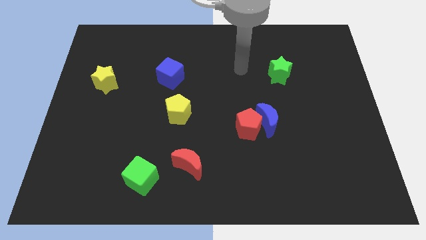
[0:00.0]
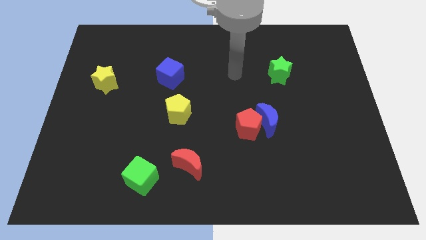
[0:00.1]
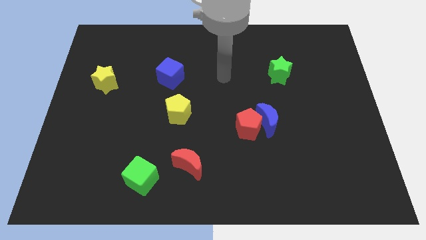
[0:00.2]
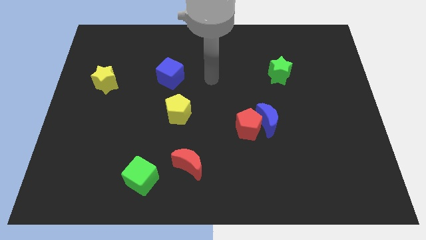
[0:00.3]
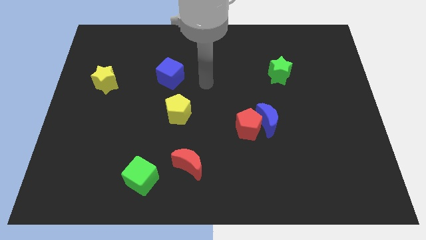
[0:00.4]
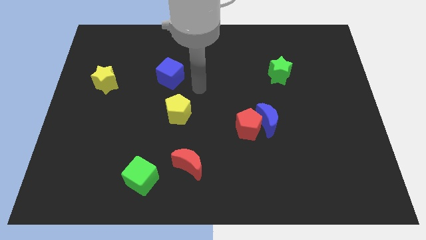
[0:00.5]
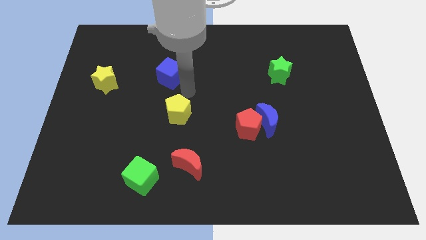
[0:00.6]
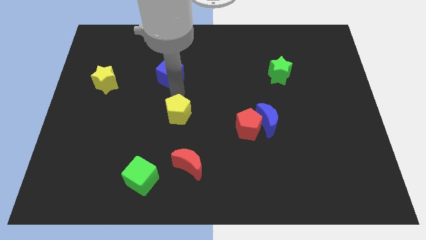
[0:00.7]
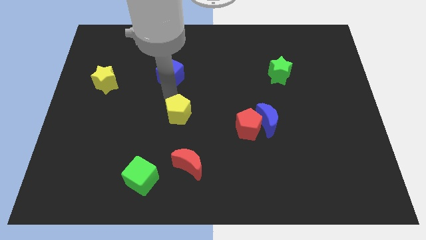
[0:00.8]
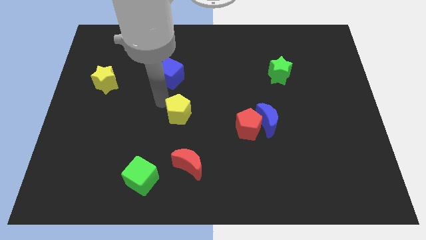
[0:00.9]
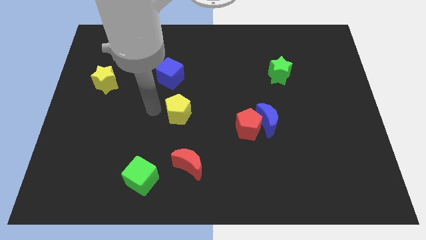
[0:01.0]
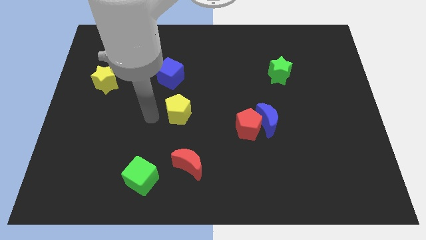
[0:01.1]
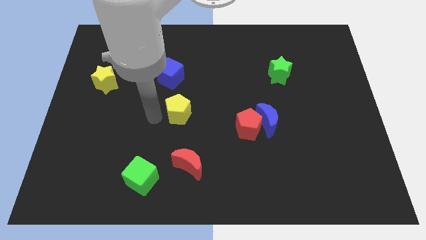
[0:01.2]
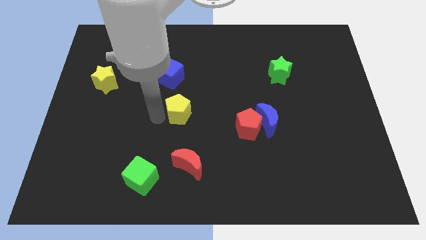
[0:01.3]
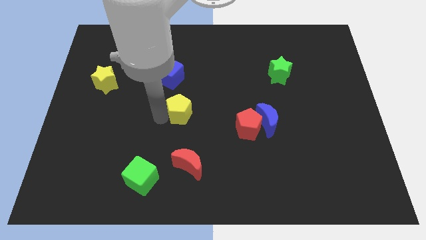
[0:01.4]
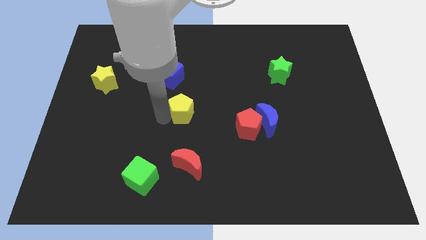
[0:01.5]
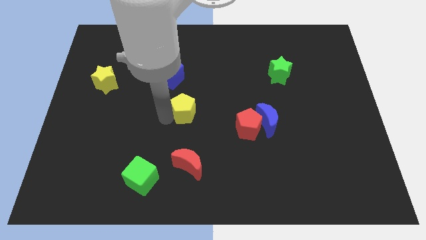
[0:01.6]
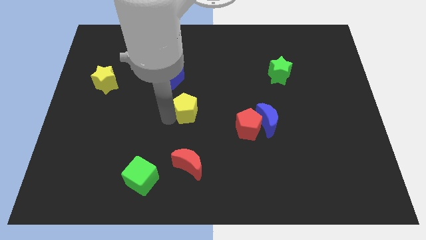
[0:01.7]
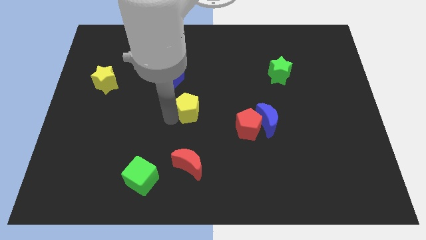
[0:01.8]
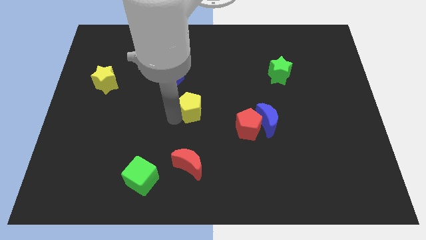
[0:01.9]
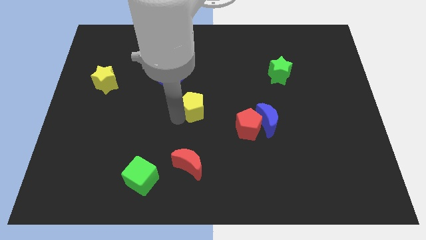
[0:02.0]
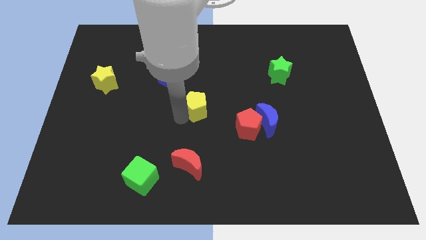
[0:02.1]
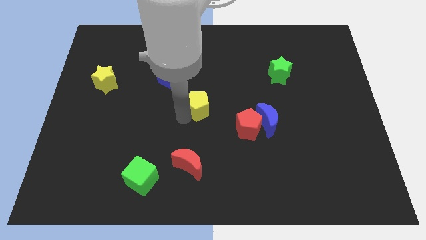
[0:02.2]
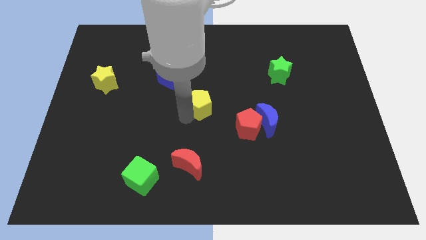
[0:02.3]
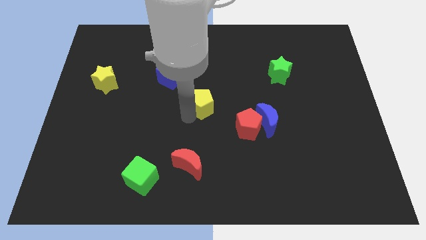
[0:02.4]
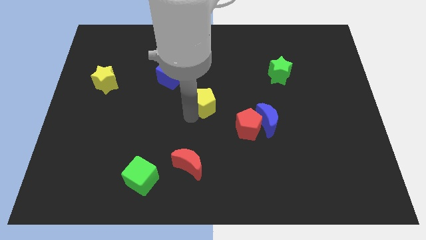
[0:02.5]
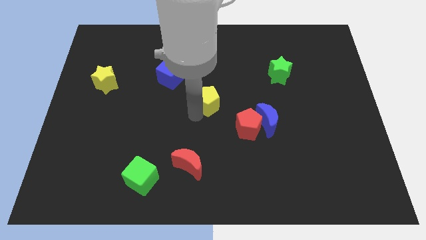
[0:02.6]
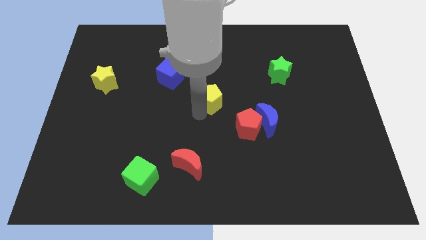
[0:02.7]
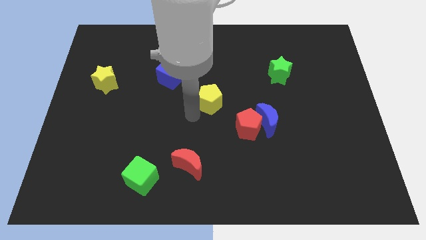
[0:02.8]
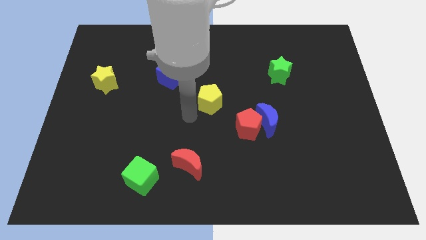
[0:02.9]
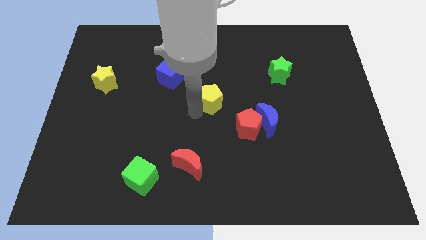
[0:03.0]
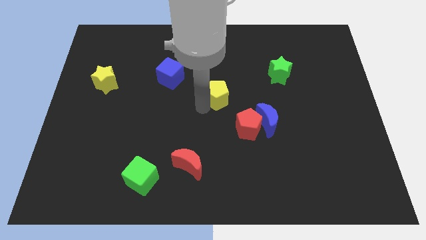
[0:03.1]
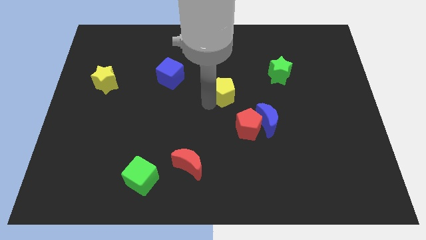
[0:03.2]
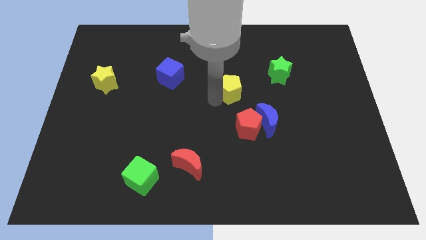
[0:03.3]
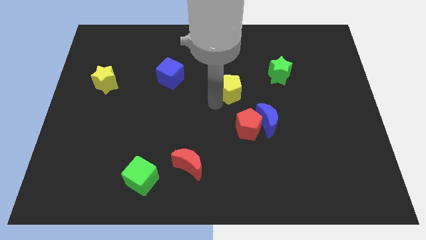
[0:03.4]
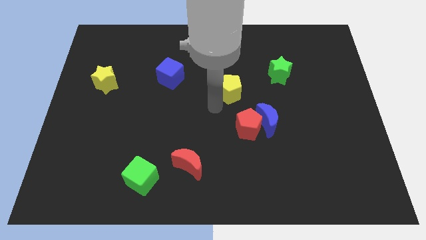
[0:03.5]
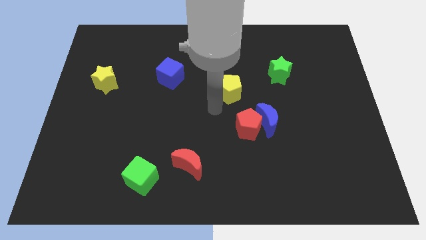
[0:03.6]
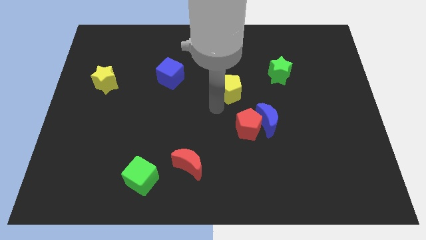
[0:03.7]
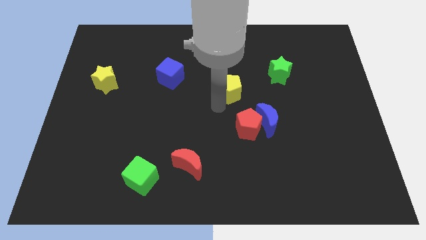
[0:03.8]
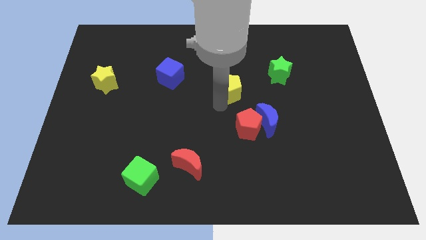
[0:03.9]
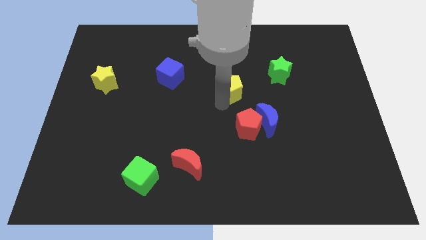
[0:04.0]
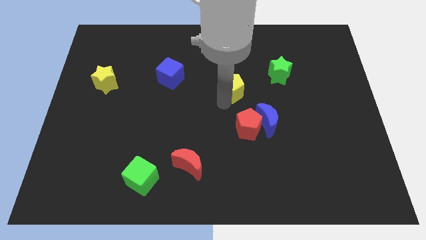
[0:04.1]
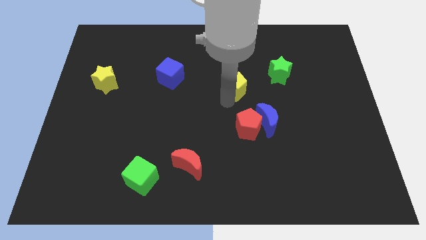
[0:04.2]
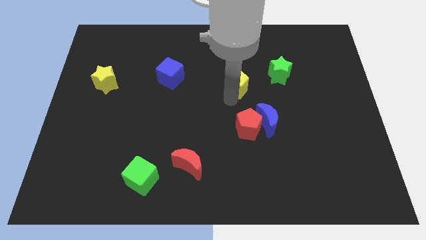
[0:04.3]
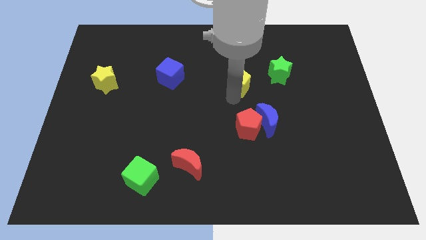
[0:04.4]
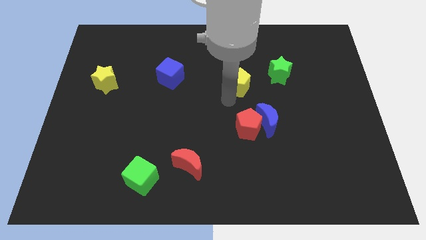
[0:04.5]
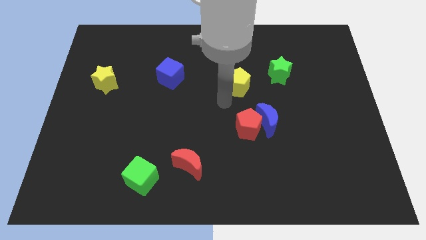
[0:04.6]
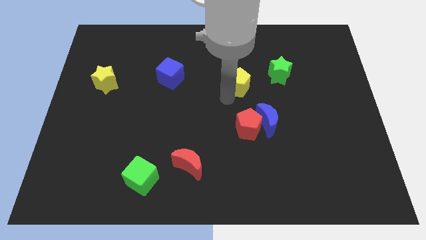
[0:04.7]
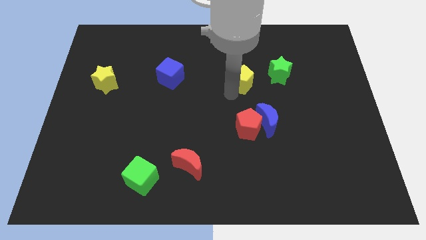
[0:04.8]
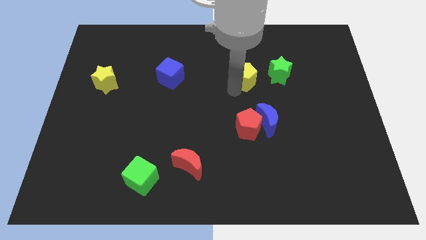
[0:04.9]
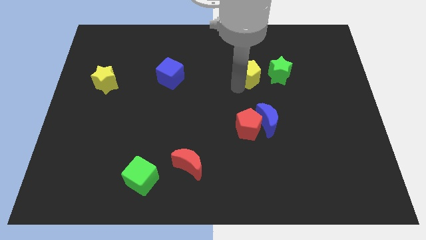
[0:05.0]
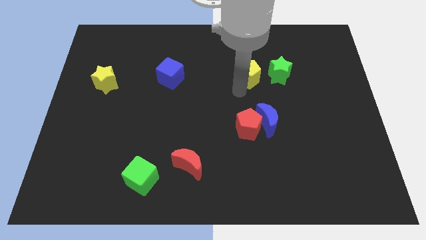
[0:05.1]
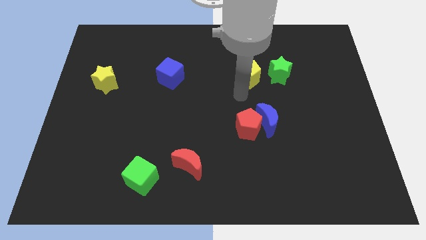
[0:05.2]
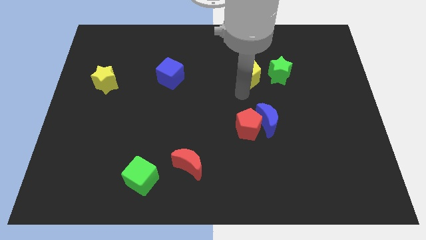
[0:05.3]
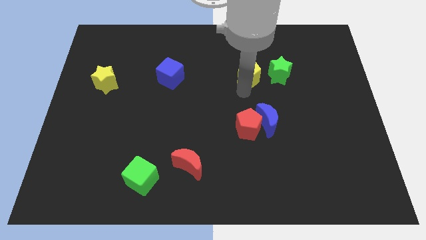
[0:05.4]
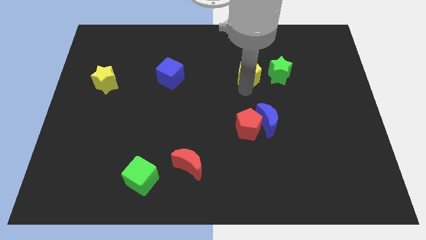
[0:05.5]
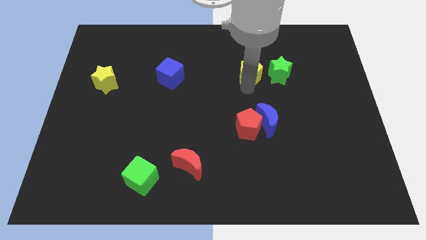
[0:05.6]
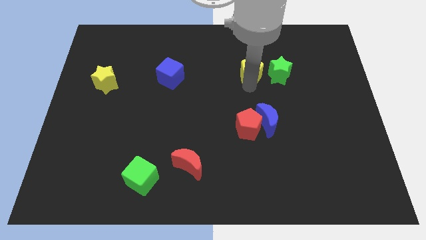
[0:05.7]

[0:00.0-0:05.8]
push the yellow pentagon to the top left side of the green star

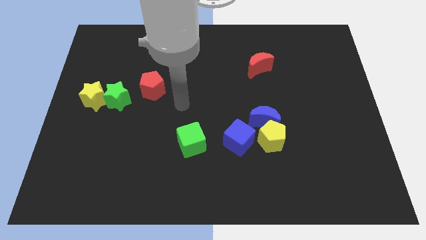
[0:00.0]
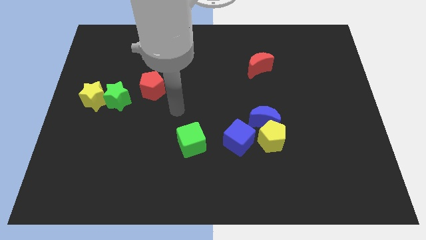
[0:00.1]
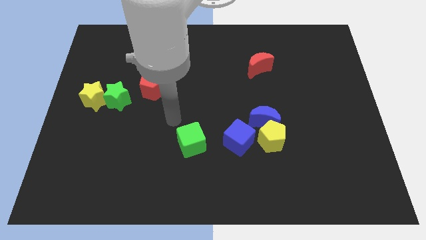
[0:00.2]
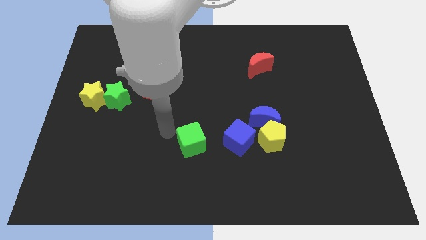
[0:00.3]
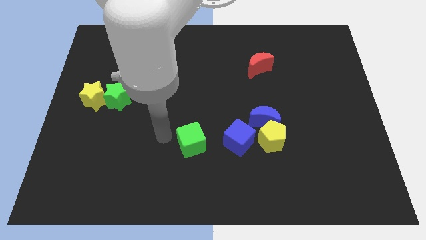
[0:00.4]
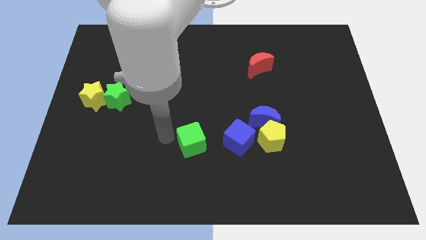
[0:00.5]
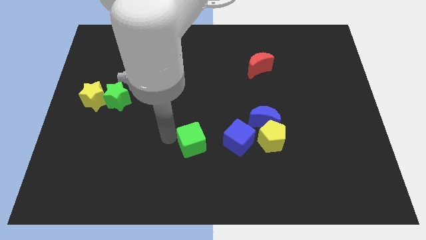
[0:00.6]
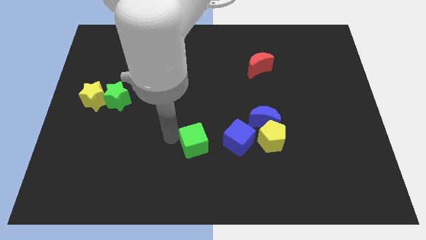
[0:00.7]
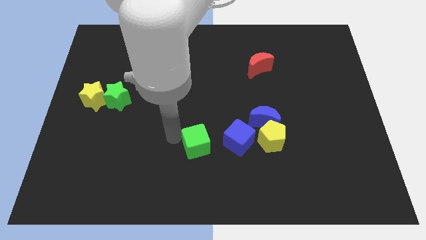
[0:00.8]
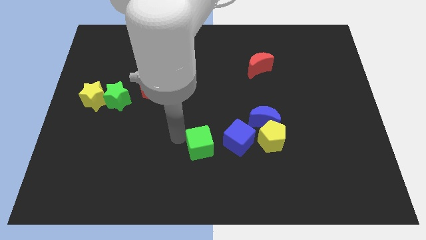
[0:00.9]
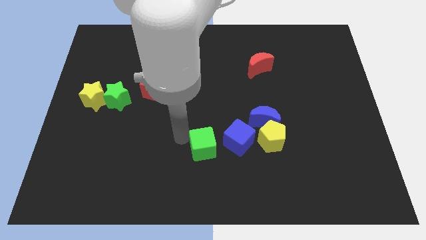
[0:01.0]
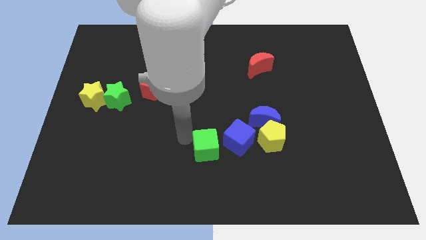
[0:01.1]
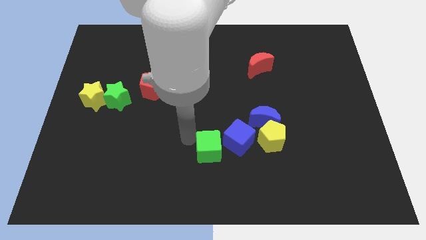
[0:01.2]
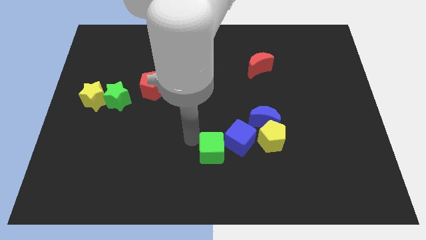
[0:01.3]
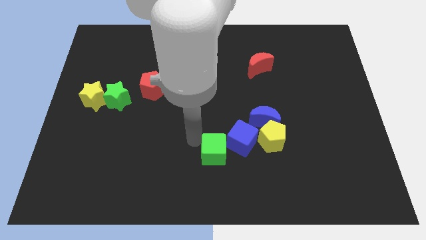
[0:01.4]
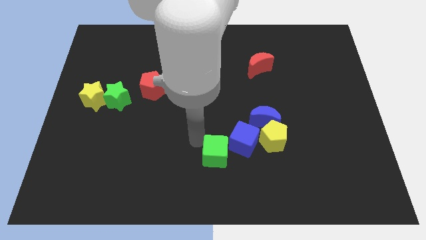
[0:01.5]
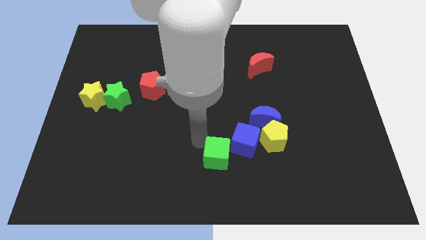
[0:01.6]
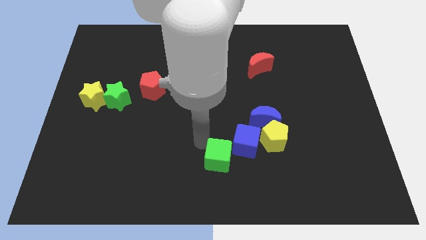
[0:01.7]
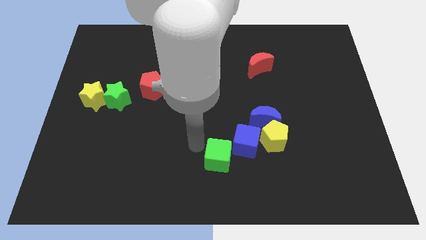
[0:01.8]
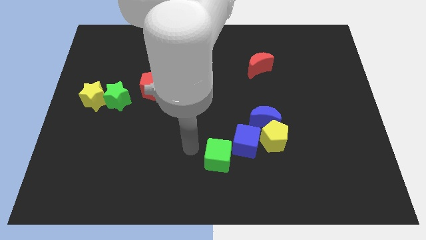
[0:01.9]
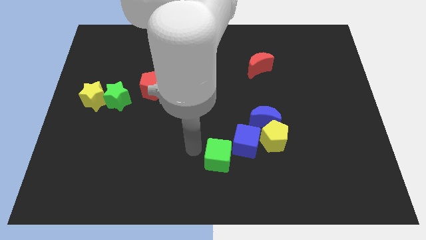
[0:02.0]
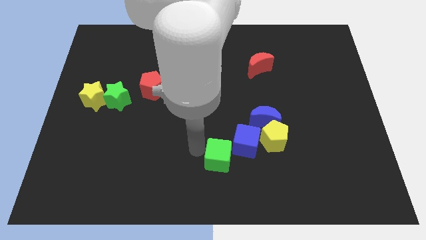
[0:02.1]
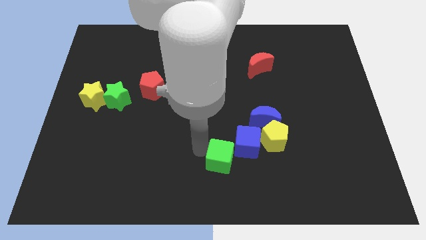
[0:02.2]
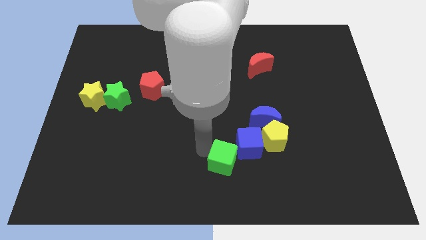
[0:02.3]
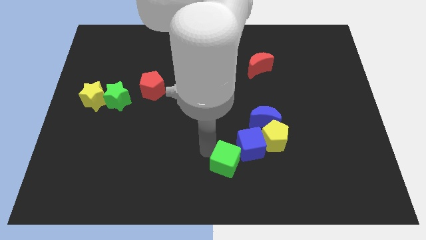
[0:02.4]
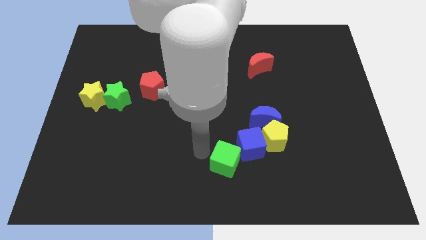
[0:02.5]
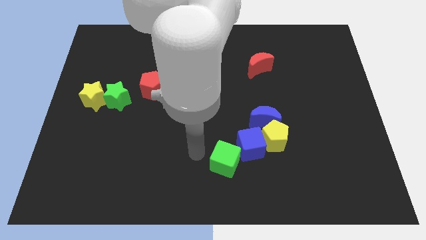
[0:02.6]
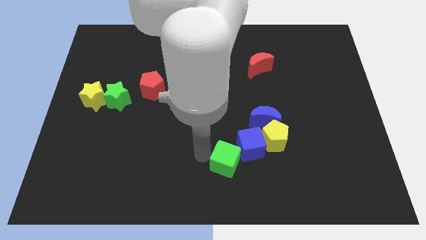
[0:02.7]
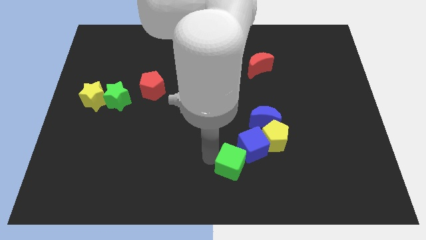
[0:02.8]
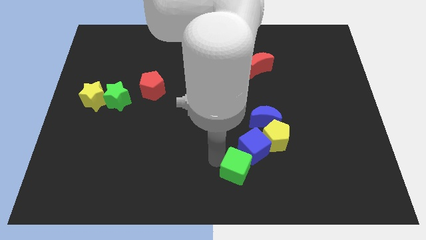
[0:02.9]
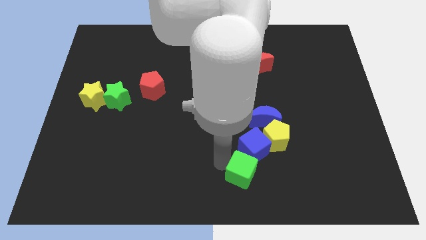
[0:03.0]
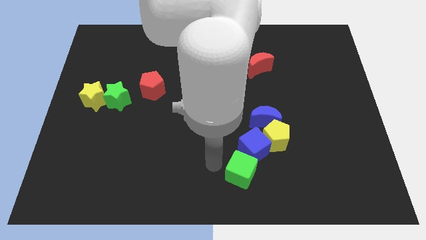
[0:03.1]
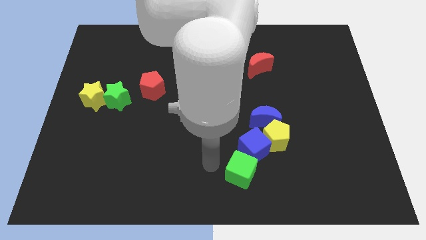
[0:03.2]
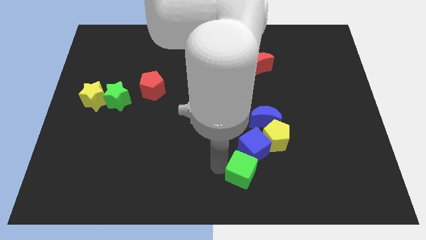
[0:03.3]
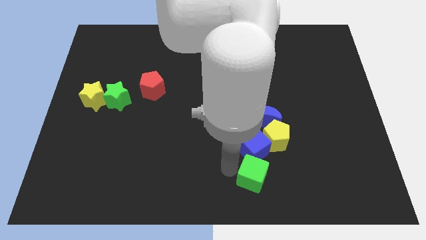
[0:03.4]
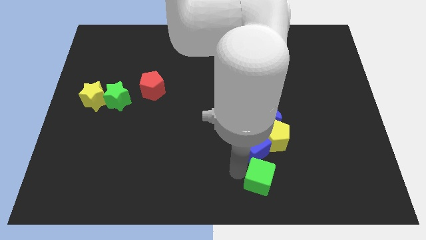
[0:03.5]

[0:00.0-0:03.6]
move the green cube to the bottom side of the yellow pentagon
